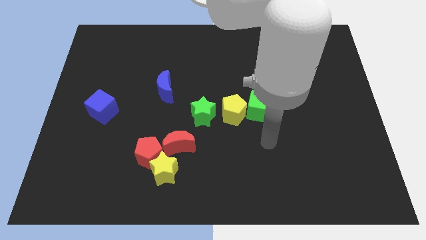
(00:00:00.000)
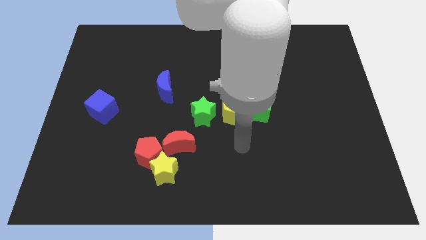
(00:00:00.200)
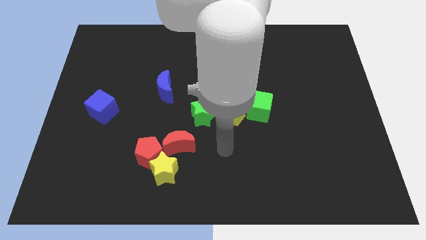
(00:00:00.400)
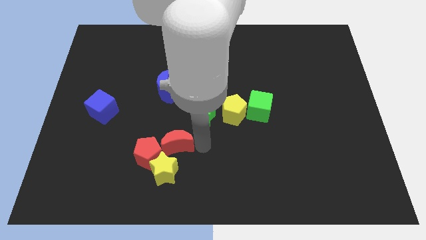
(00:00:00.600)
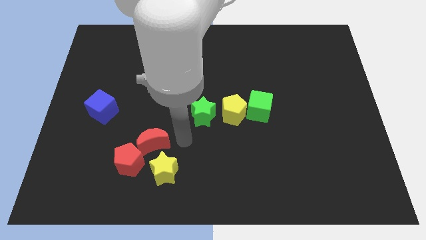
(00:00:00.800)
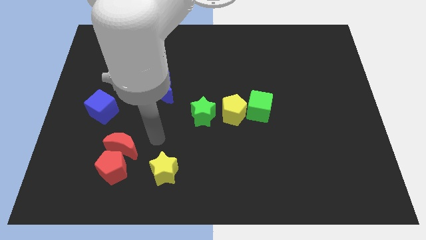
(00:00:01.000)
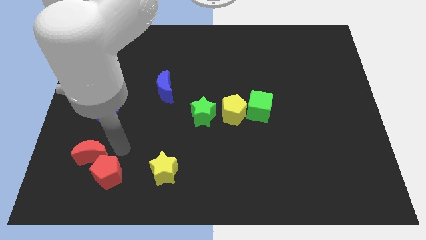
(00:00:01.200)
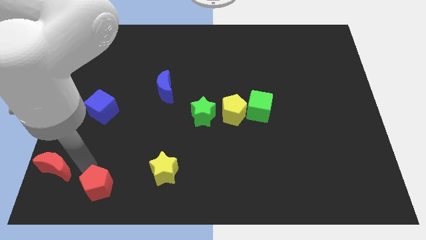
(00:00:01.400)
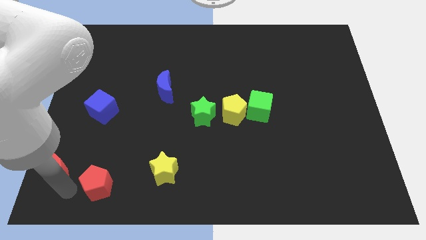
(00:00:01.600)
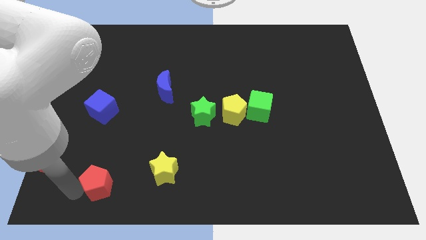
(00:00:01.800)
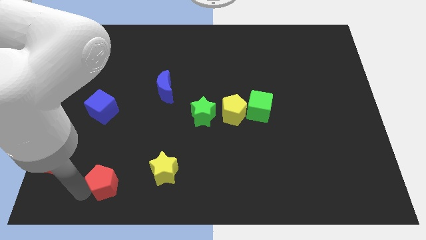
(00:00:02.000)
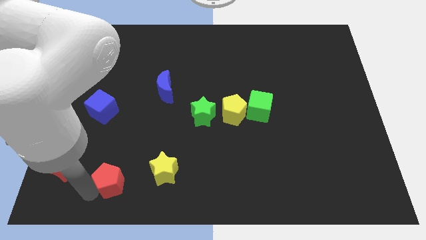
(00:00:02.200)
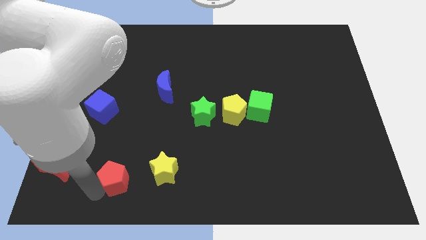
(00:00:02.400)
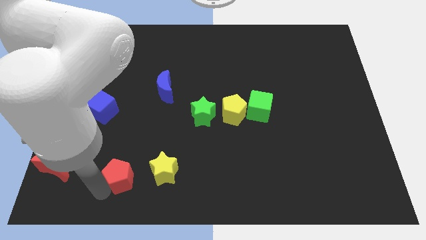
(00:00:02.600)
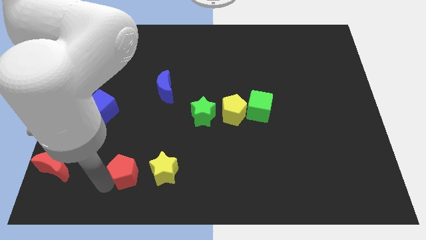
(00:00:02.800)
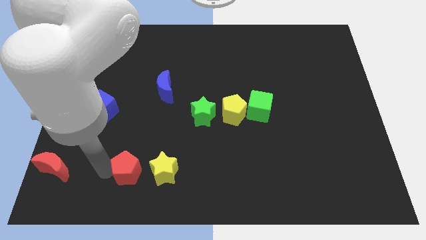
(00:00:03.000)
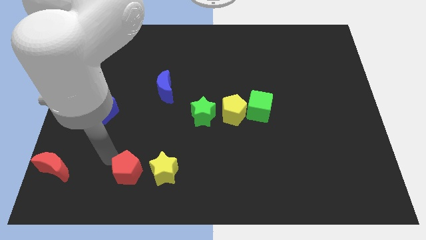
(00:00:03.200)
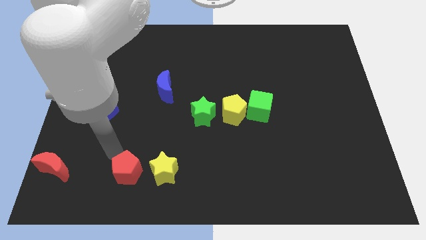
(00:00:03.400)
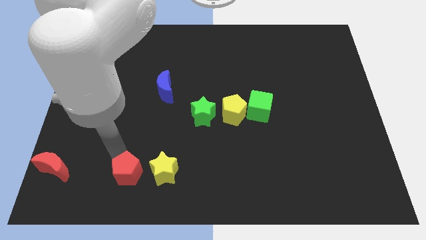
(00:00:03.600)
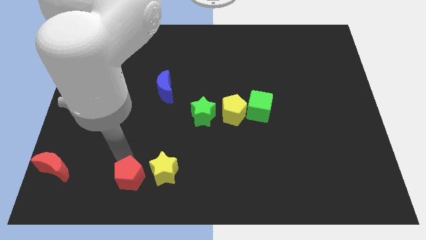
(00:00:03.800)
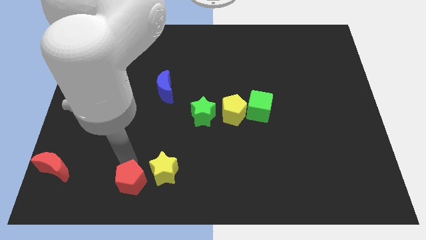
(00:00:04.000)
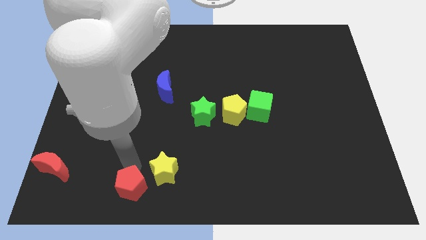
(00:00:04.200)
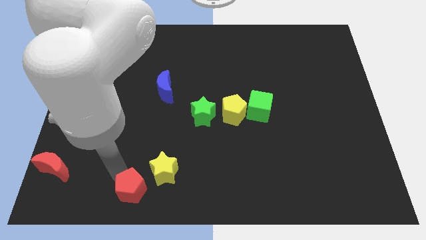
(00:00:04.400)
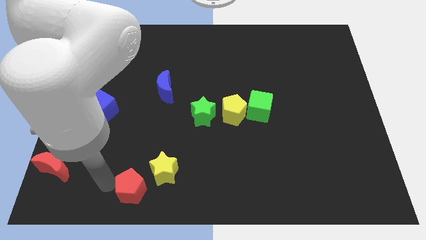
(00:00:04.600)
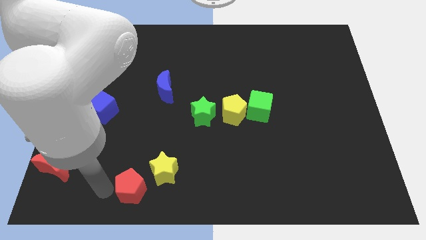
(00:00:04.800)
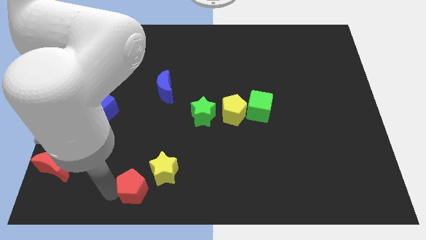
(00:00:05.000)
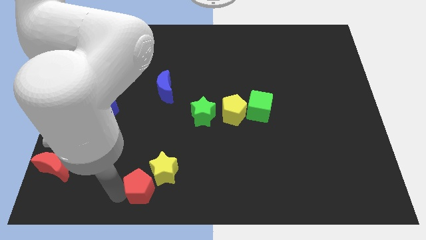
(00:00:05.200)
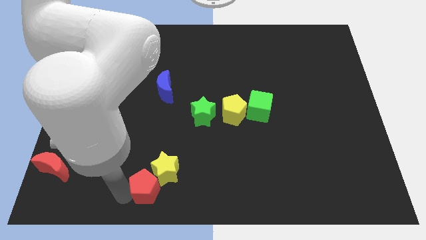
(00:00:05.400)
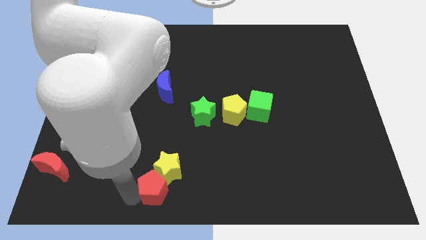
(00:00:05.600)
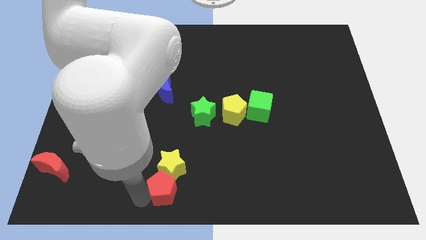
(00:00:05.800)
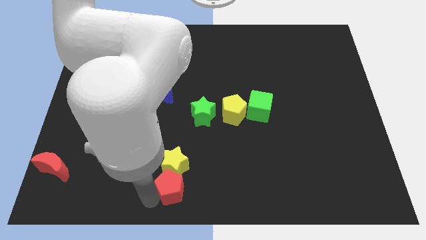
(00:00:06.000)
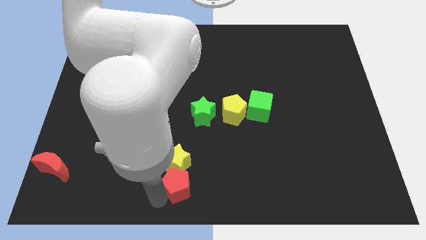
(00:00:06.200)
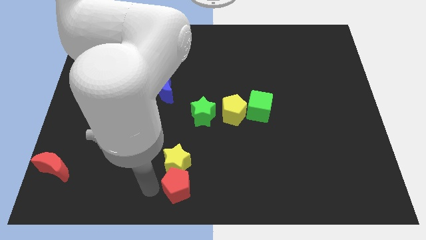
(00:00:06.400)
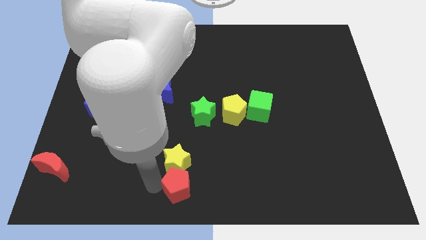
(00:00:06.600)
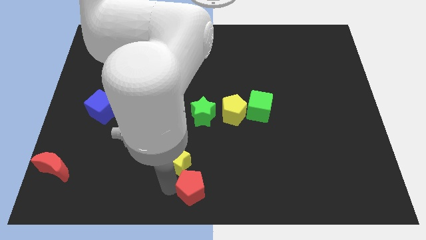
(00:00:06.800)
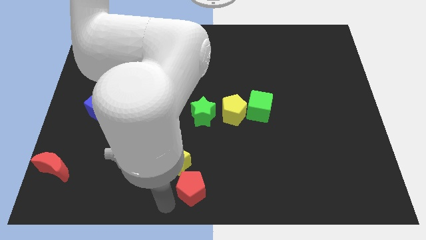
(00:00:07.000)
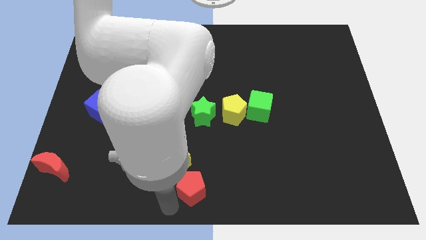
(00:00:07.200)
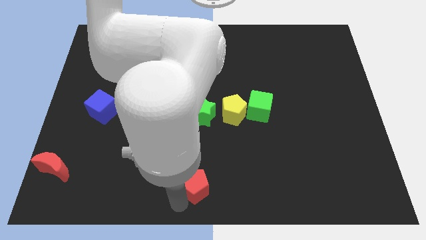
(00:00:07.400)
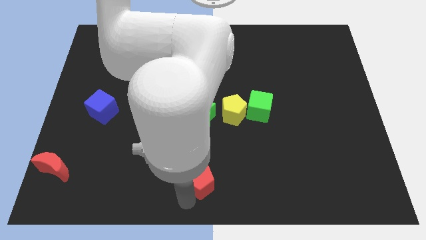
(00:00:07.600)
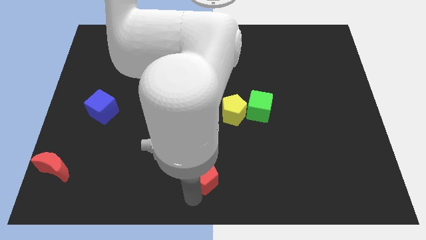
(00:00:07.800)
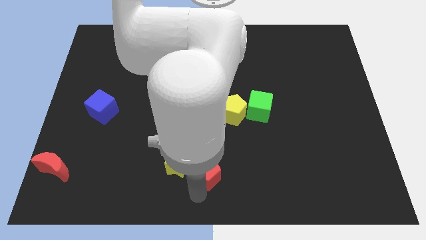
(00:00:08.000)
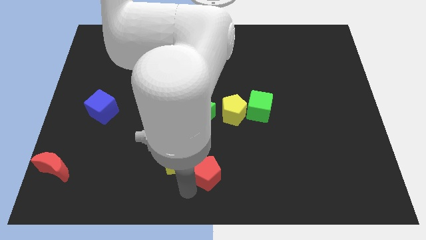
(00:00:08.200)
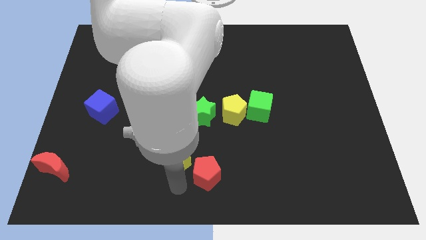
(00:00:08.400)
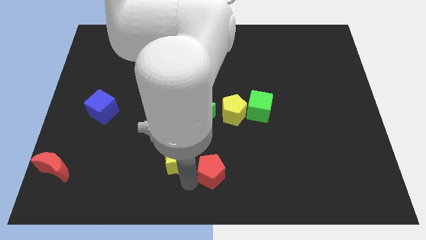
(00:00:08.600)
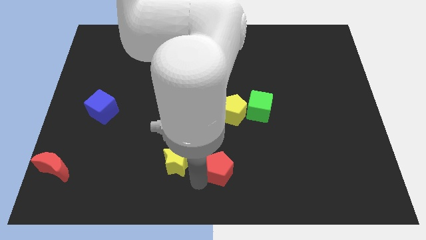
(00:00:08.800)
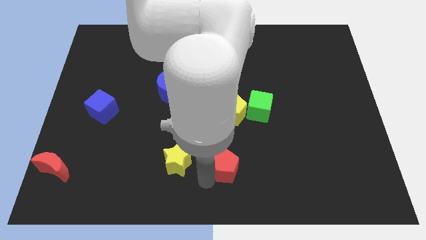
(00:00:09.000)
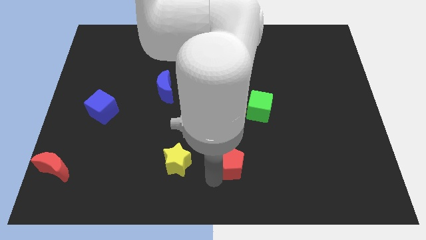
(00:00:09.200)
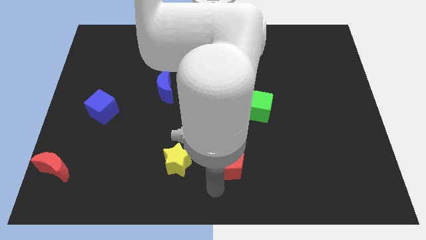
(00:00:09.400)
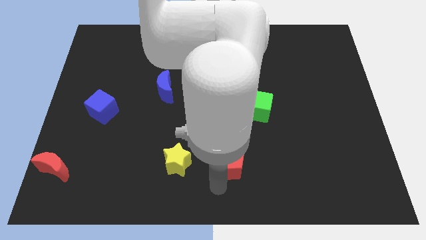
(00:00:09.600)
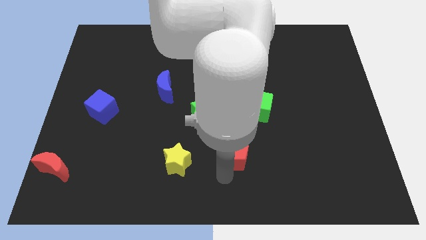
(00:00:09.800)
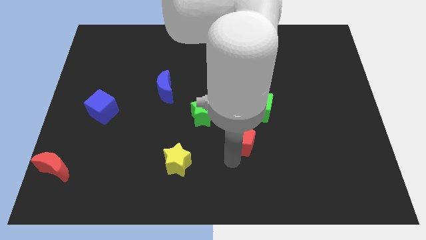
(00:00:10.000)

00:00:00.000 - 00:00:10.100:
slide the red pentagon to the bottom right of the yellow pentagon

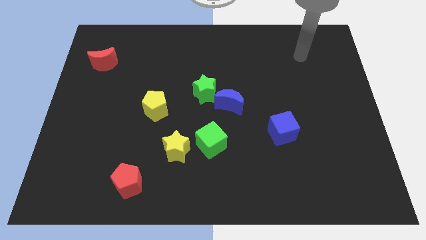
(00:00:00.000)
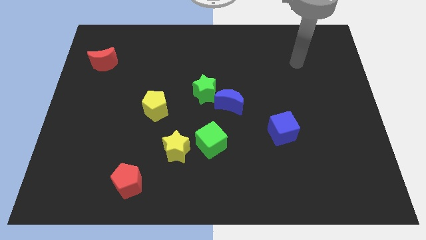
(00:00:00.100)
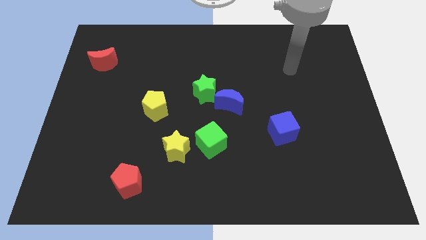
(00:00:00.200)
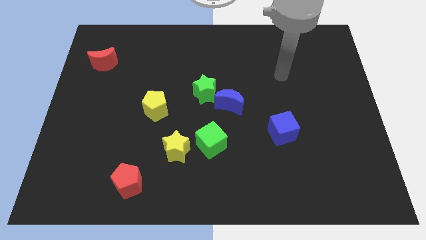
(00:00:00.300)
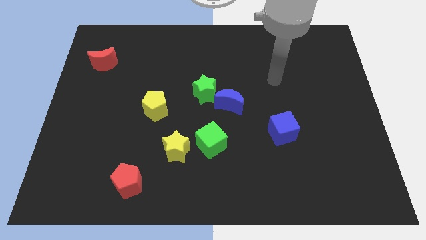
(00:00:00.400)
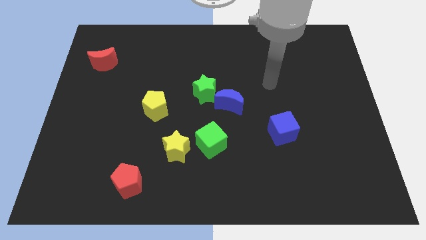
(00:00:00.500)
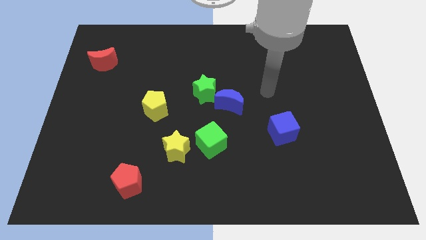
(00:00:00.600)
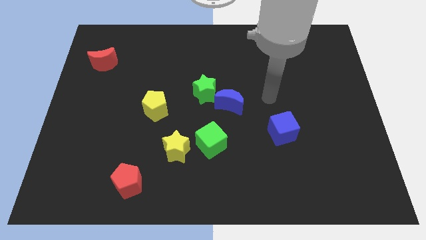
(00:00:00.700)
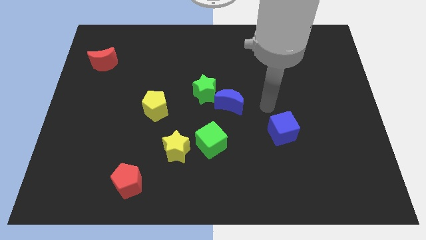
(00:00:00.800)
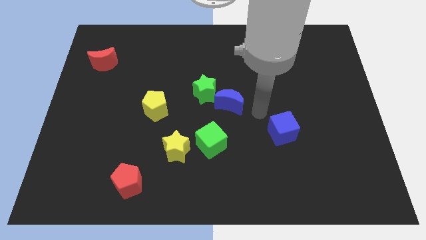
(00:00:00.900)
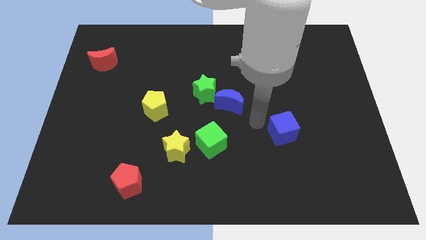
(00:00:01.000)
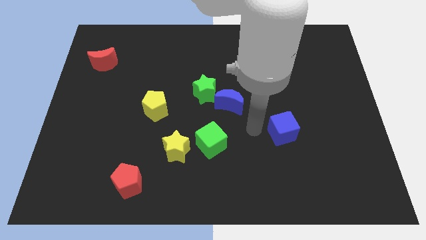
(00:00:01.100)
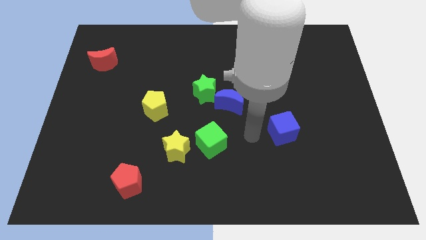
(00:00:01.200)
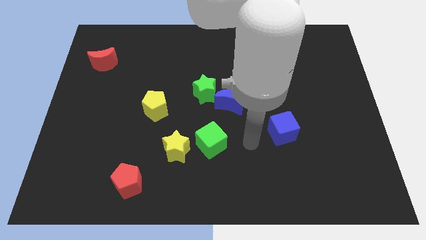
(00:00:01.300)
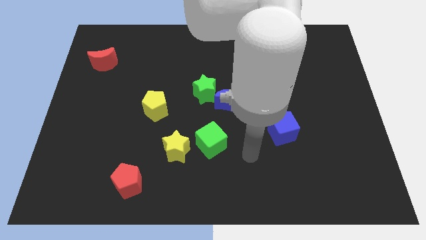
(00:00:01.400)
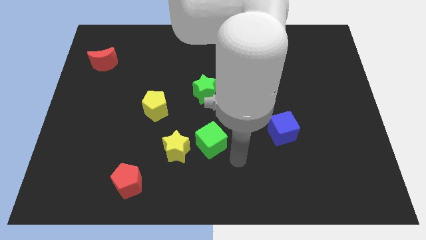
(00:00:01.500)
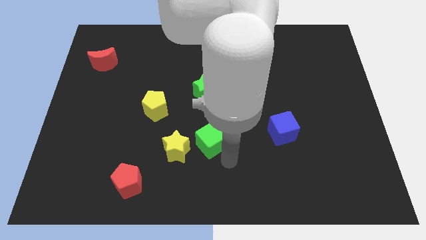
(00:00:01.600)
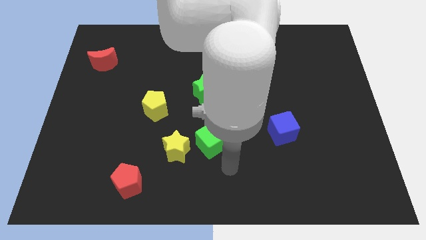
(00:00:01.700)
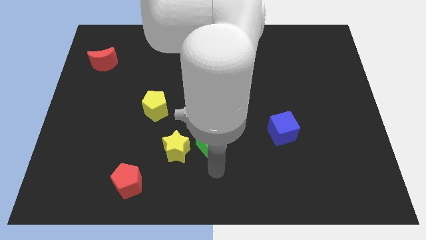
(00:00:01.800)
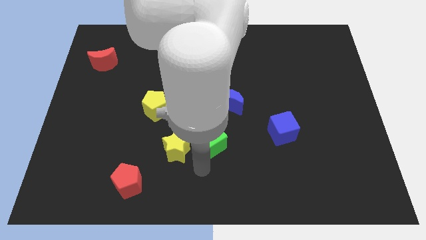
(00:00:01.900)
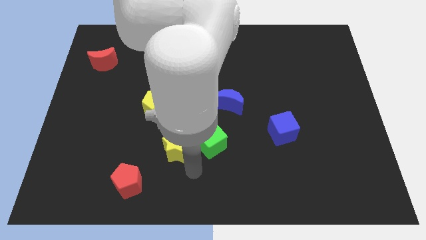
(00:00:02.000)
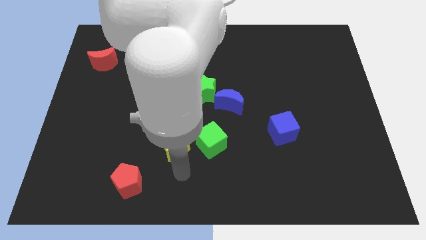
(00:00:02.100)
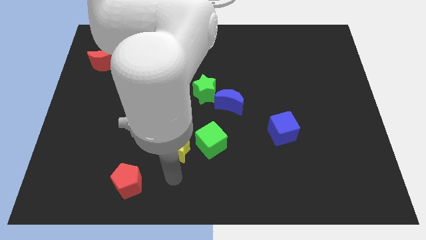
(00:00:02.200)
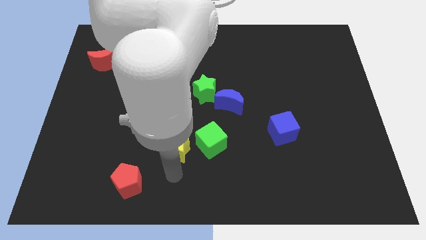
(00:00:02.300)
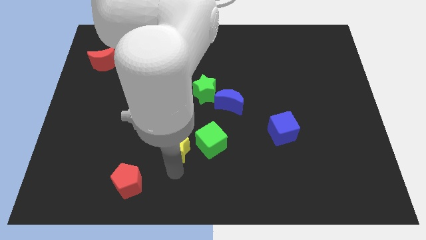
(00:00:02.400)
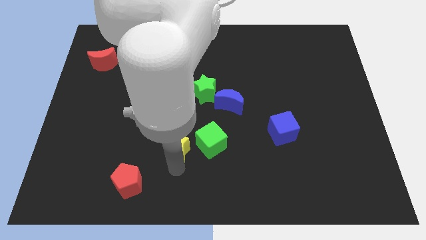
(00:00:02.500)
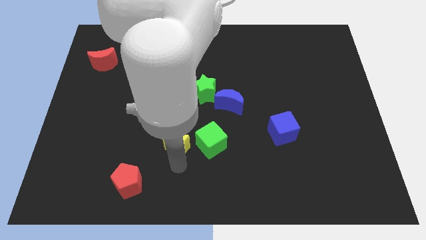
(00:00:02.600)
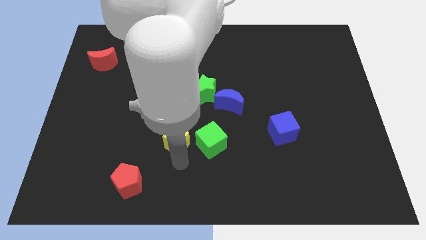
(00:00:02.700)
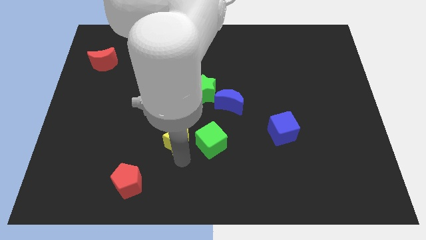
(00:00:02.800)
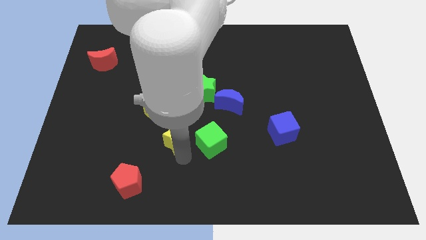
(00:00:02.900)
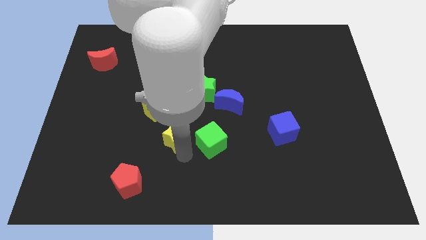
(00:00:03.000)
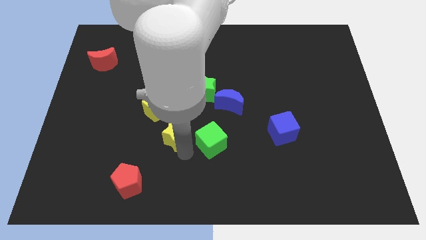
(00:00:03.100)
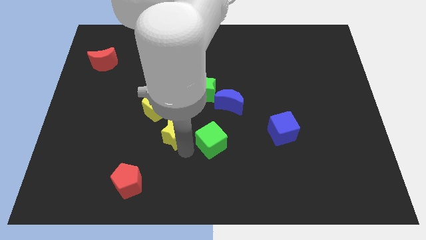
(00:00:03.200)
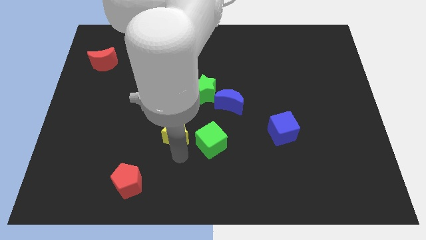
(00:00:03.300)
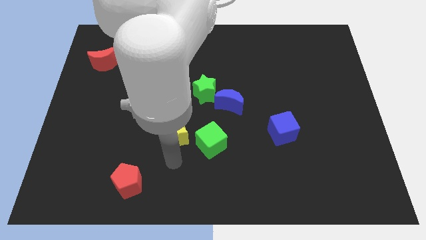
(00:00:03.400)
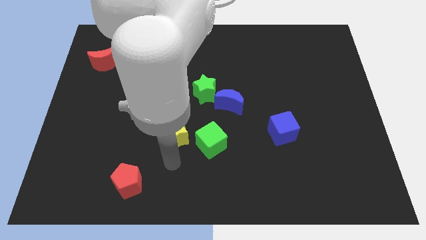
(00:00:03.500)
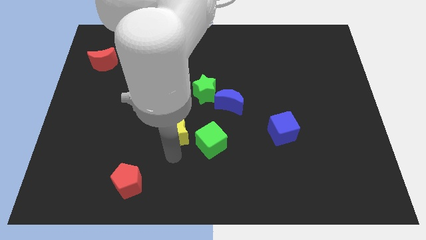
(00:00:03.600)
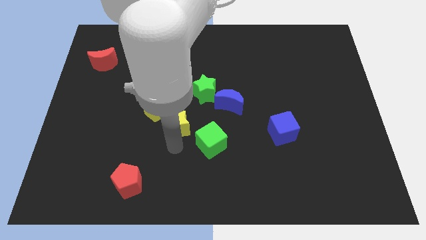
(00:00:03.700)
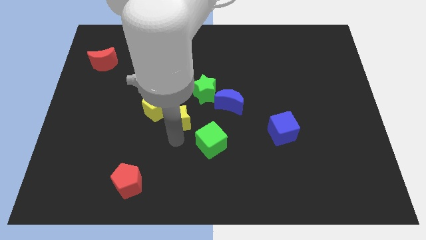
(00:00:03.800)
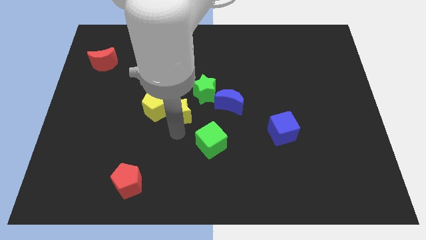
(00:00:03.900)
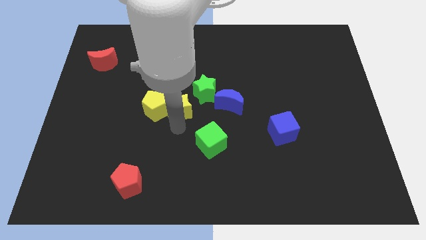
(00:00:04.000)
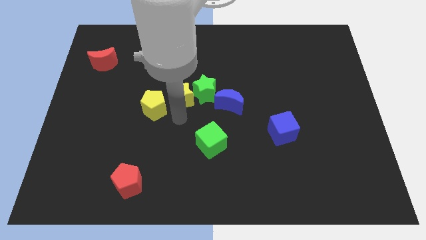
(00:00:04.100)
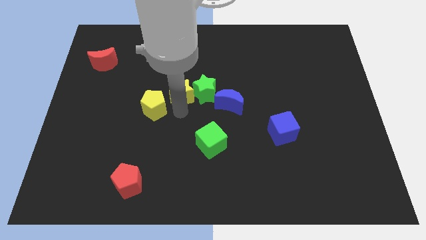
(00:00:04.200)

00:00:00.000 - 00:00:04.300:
slide the yellow star diagonally up and to the left of the green star
